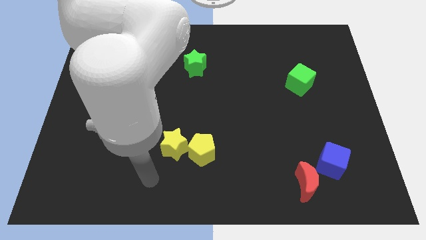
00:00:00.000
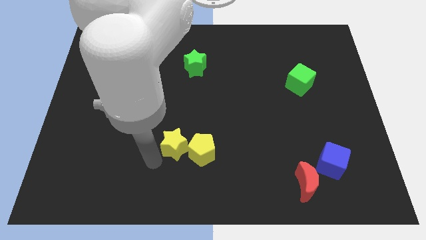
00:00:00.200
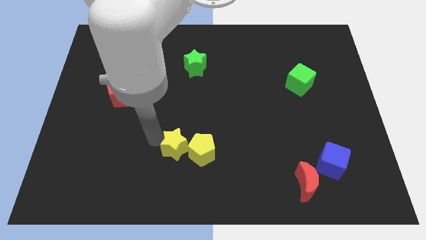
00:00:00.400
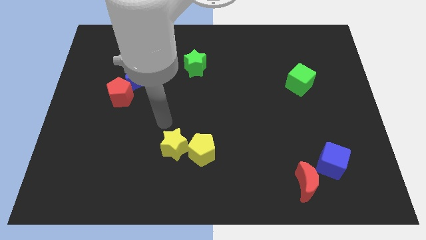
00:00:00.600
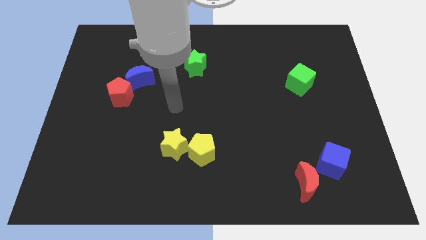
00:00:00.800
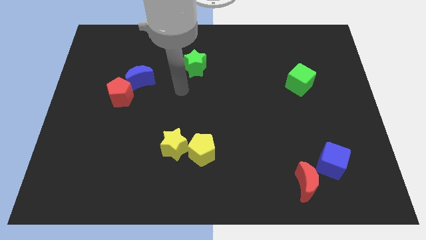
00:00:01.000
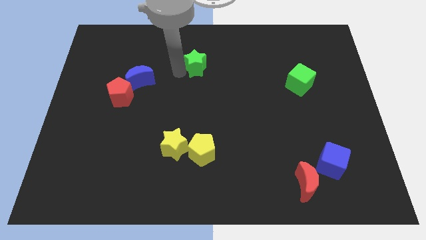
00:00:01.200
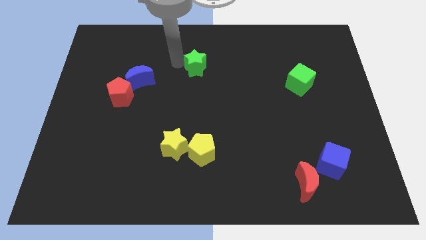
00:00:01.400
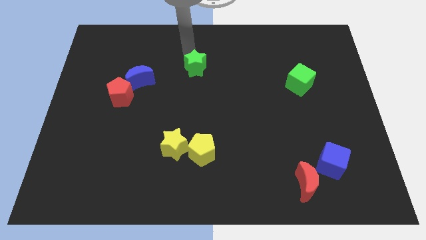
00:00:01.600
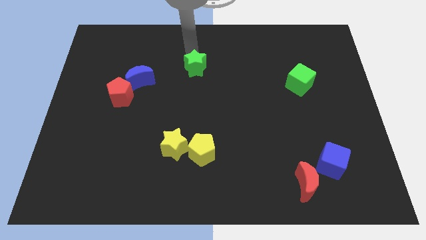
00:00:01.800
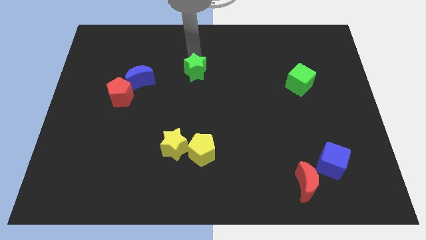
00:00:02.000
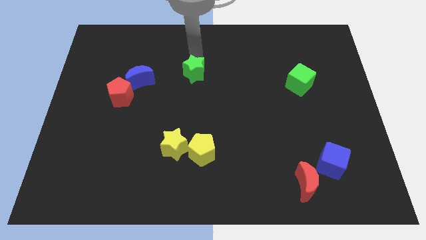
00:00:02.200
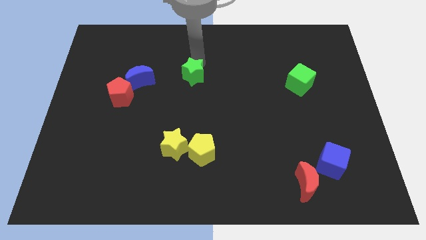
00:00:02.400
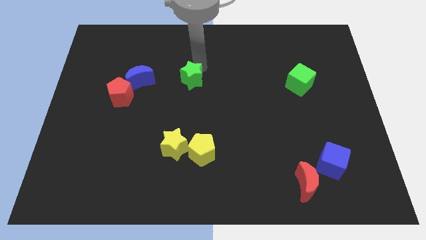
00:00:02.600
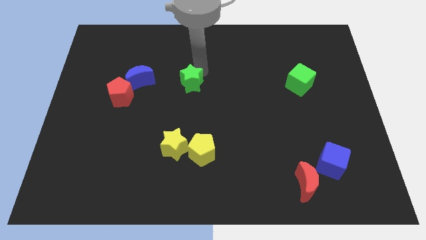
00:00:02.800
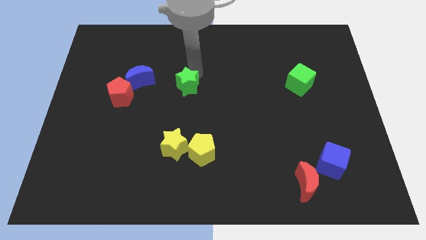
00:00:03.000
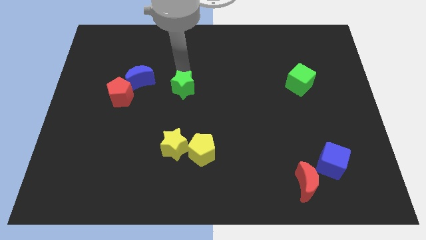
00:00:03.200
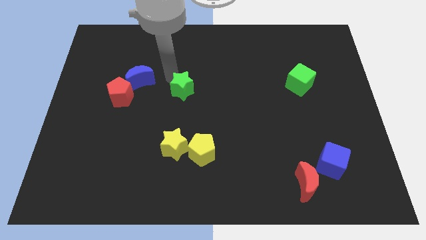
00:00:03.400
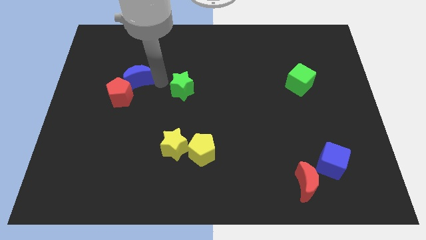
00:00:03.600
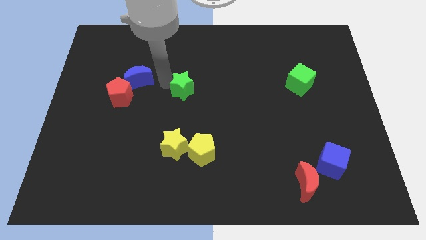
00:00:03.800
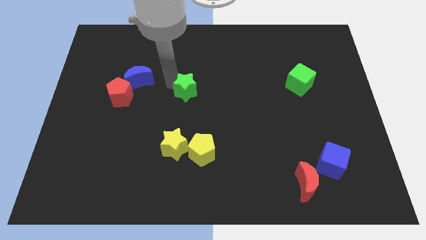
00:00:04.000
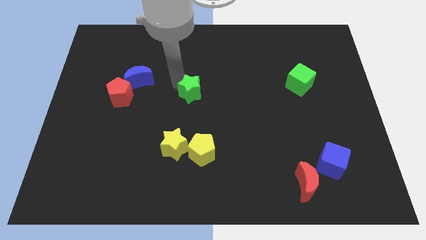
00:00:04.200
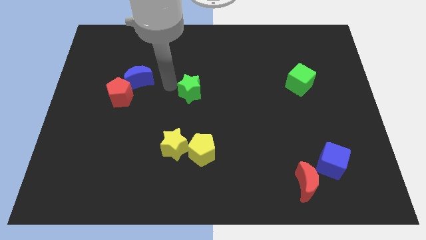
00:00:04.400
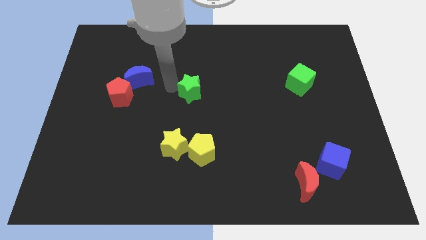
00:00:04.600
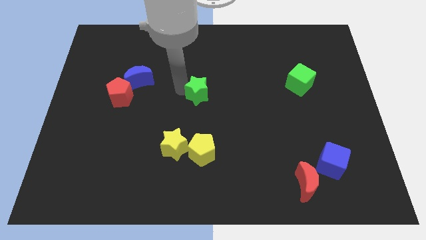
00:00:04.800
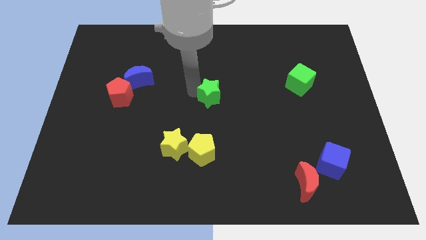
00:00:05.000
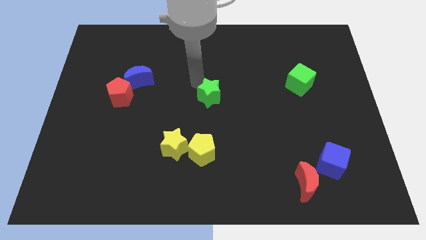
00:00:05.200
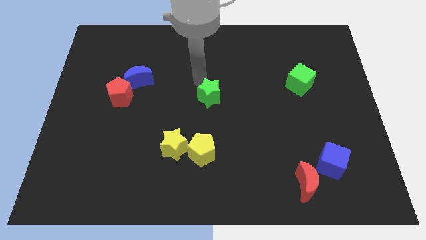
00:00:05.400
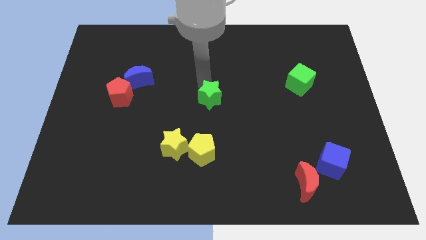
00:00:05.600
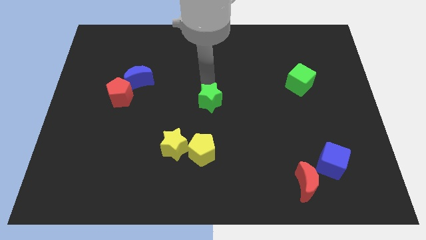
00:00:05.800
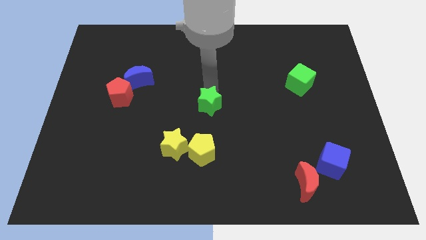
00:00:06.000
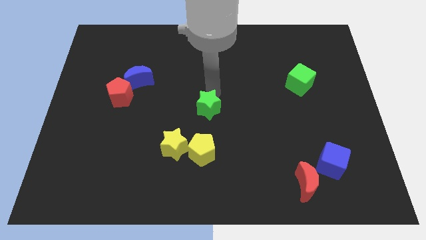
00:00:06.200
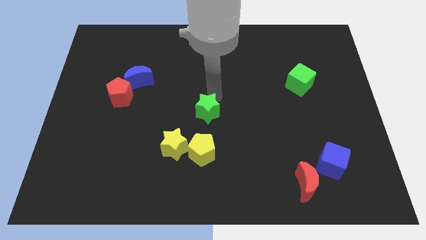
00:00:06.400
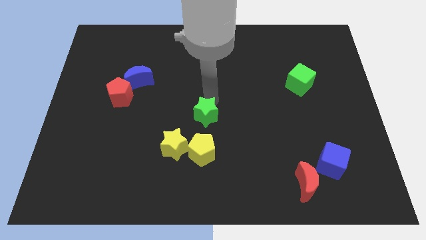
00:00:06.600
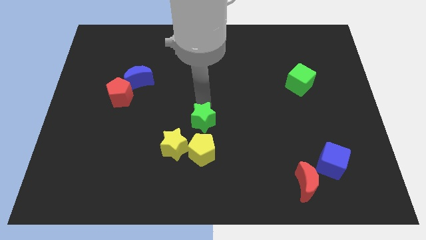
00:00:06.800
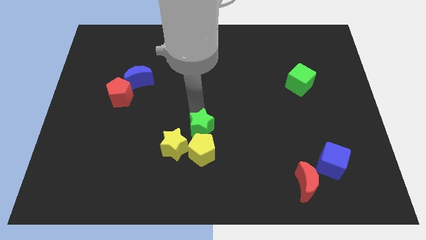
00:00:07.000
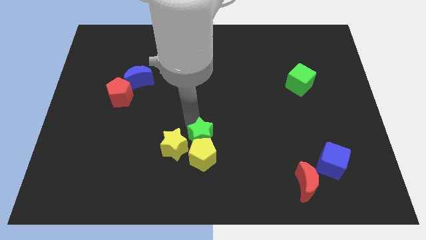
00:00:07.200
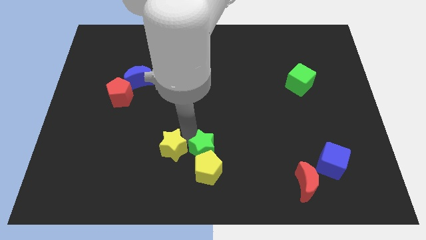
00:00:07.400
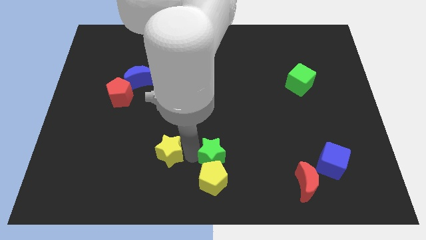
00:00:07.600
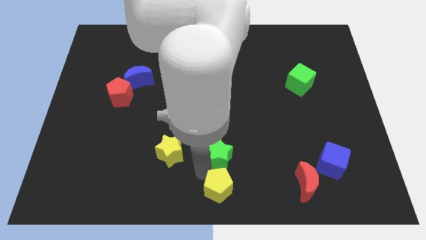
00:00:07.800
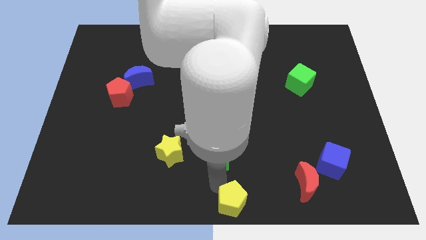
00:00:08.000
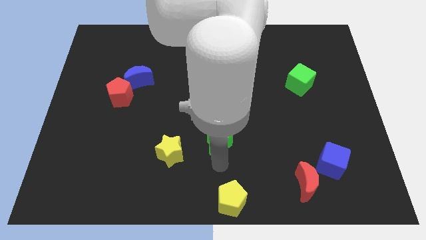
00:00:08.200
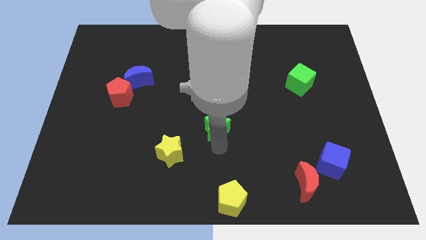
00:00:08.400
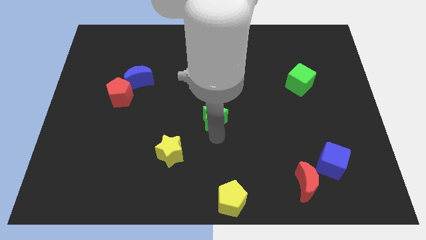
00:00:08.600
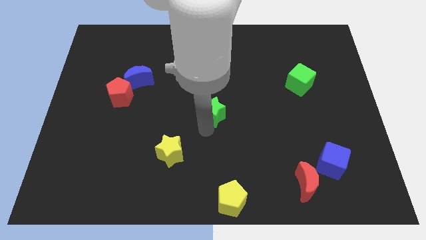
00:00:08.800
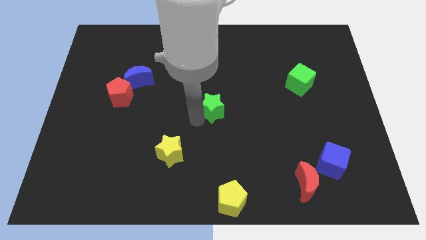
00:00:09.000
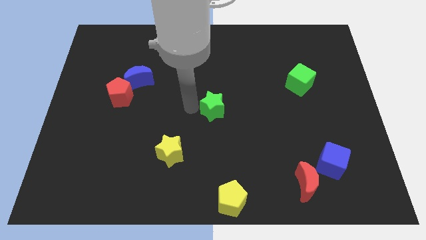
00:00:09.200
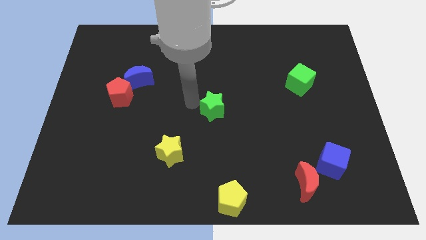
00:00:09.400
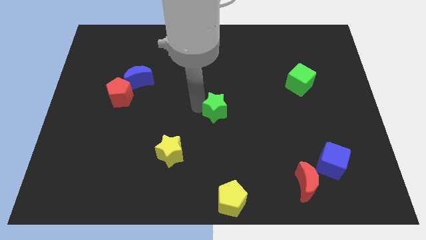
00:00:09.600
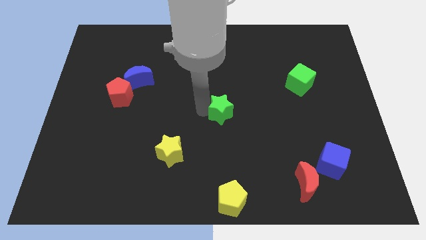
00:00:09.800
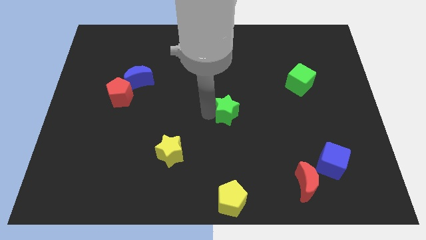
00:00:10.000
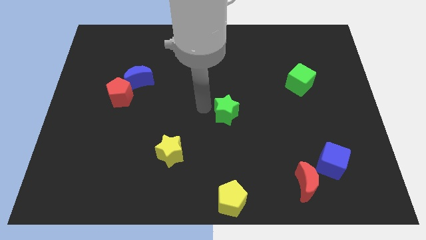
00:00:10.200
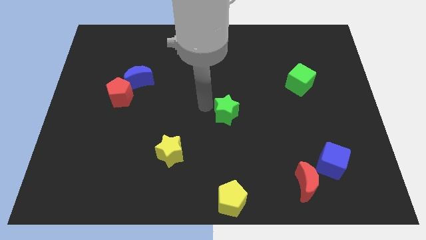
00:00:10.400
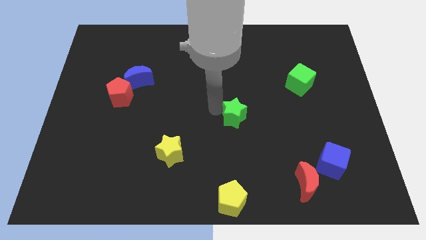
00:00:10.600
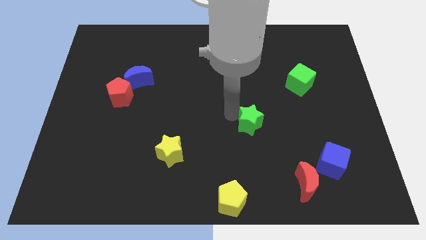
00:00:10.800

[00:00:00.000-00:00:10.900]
push the green star down and to the right

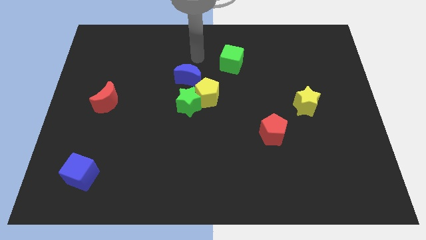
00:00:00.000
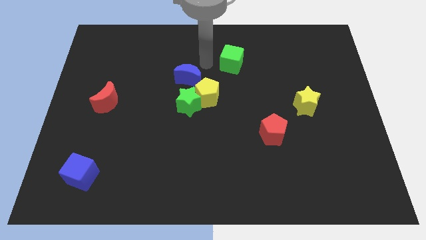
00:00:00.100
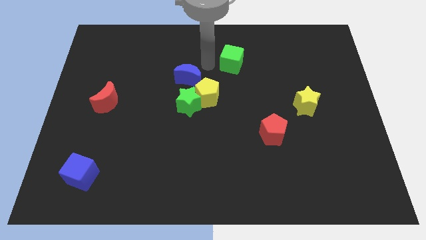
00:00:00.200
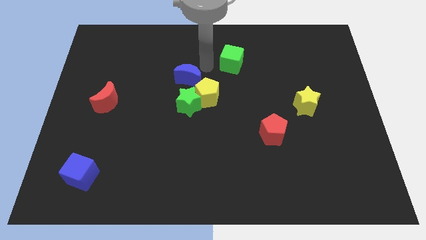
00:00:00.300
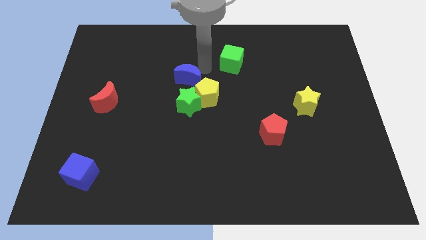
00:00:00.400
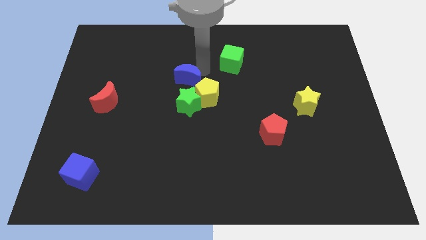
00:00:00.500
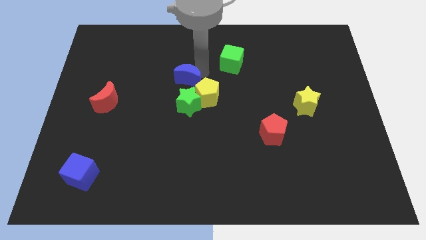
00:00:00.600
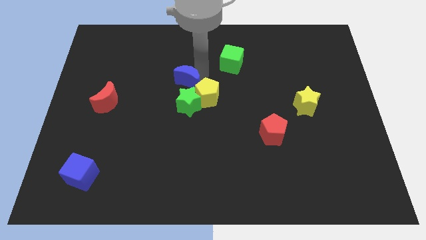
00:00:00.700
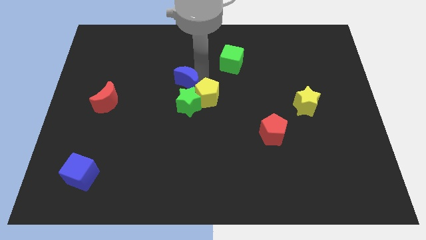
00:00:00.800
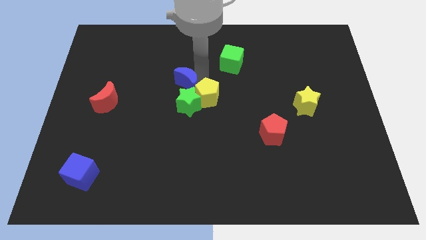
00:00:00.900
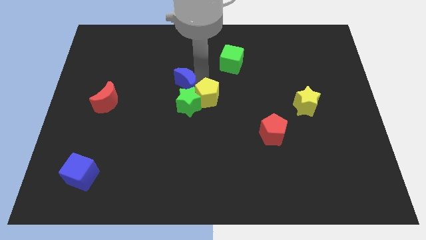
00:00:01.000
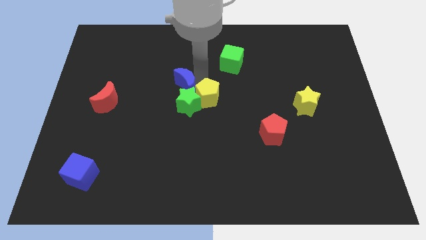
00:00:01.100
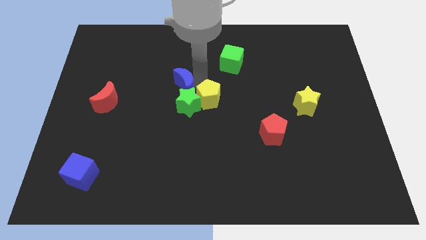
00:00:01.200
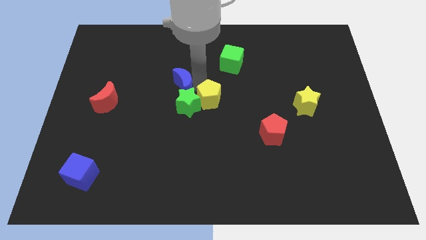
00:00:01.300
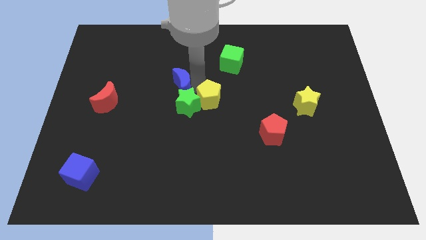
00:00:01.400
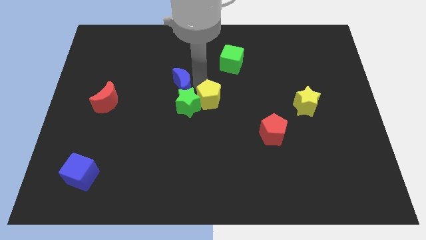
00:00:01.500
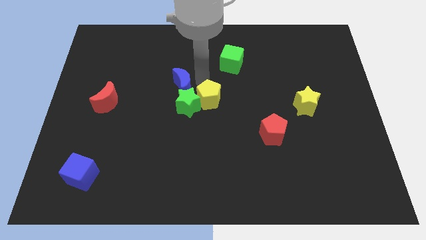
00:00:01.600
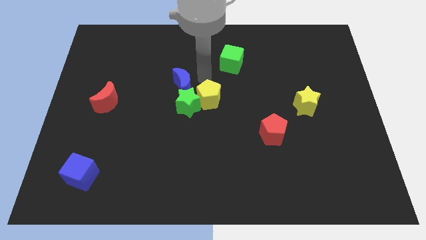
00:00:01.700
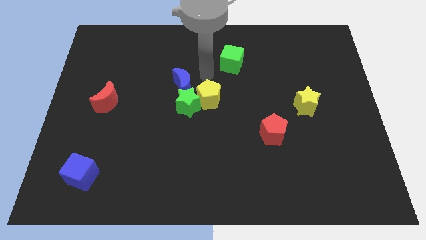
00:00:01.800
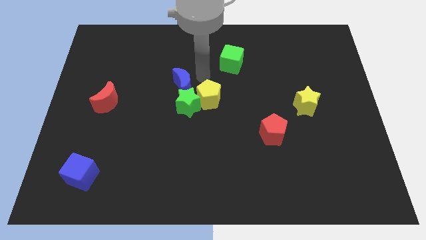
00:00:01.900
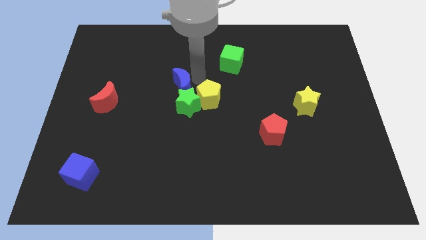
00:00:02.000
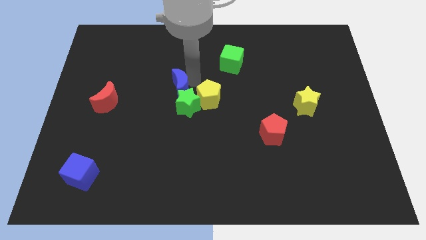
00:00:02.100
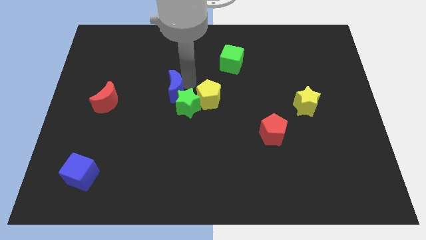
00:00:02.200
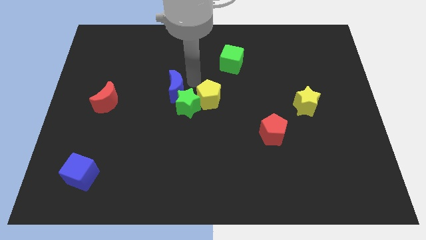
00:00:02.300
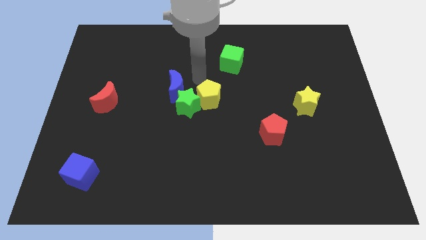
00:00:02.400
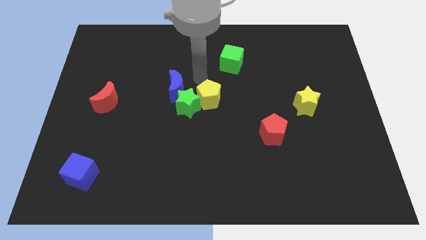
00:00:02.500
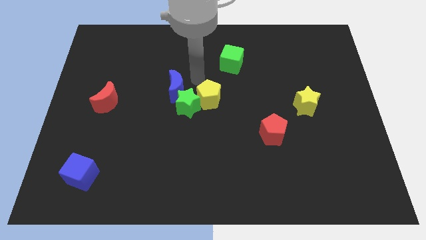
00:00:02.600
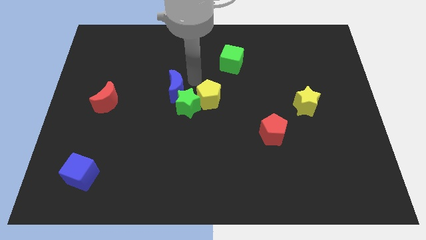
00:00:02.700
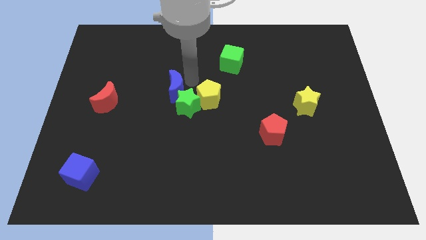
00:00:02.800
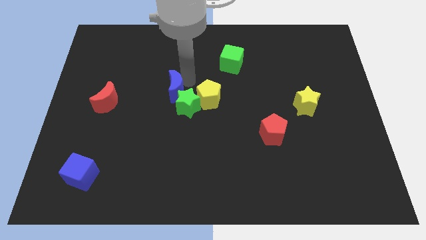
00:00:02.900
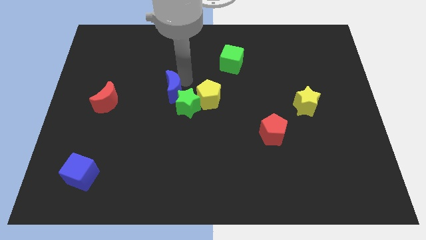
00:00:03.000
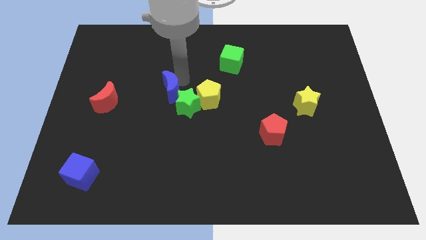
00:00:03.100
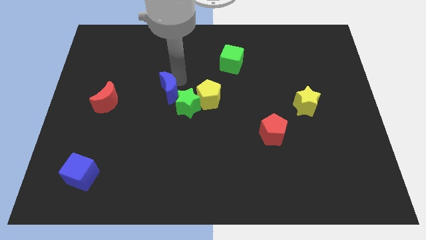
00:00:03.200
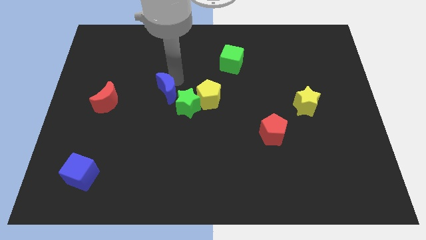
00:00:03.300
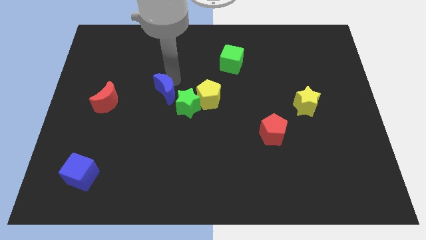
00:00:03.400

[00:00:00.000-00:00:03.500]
push the blue moon a bit downwards and to the left diagonally
